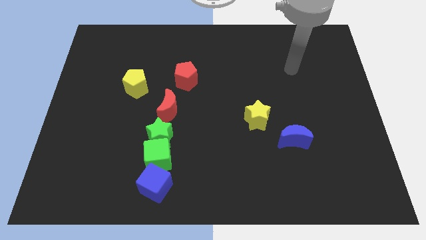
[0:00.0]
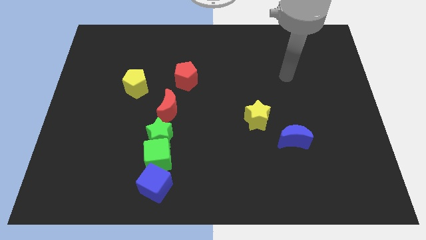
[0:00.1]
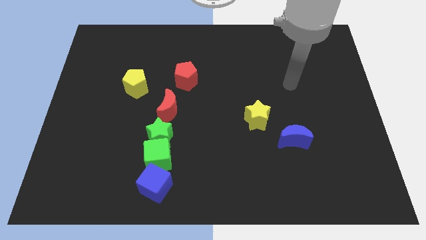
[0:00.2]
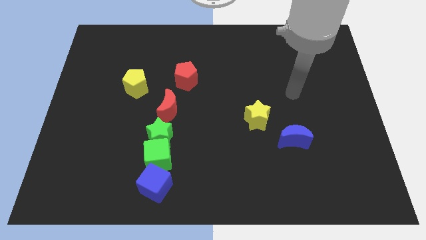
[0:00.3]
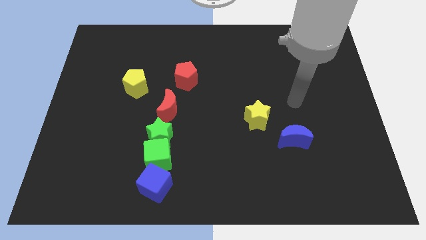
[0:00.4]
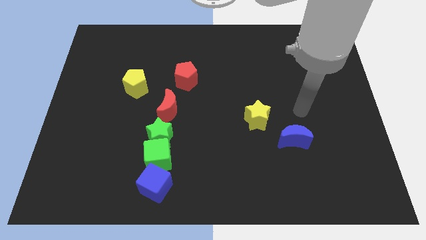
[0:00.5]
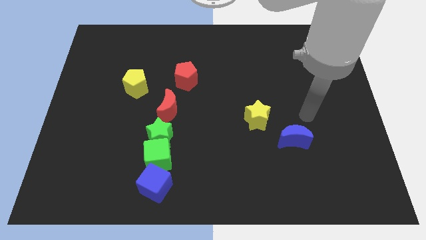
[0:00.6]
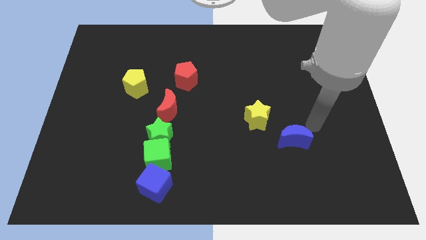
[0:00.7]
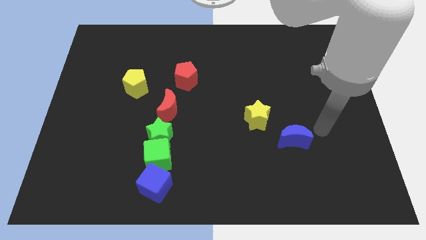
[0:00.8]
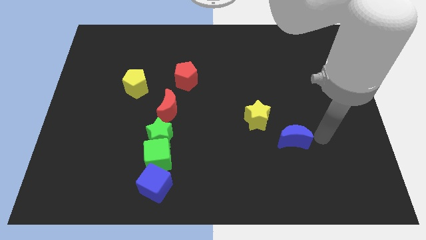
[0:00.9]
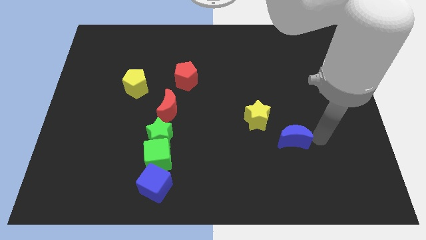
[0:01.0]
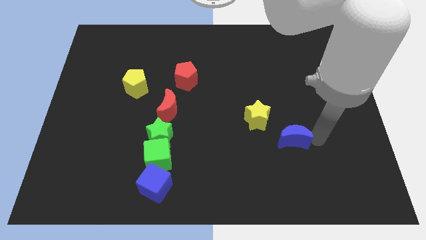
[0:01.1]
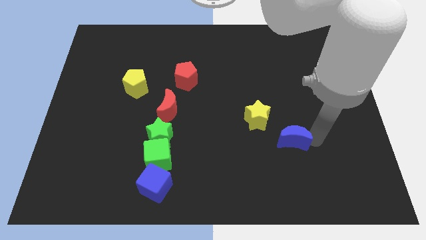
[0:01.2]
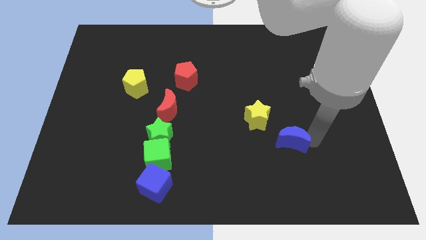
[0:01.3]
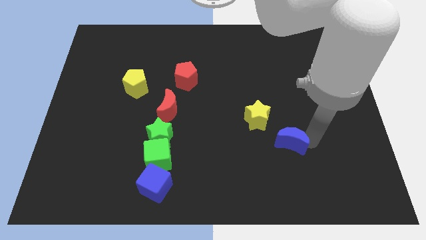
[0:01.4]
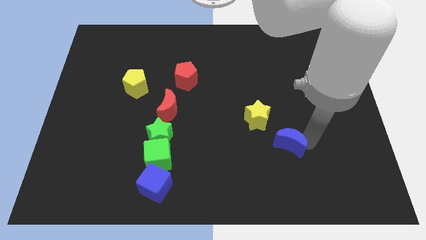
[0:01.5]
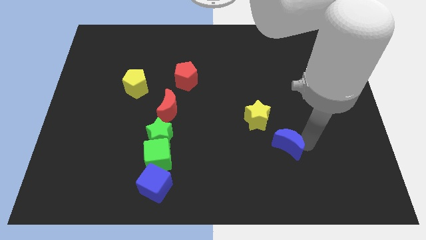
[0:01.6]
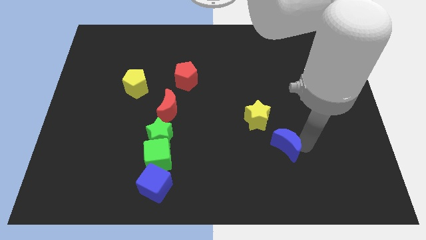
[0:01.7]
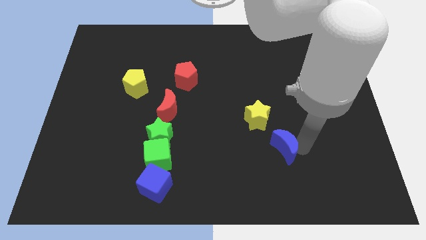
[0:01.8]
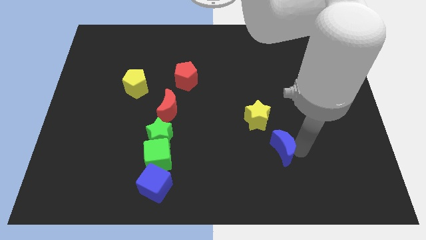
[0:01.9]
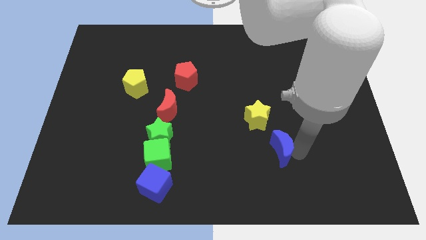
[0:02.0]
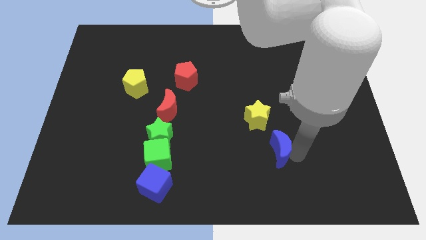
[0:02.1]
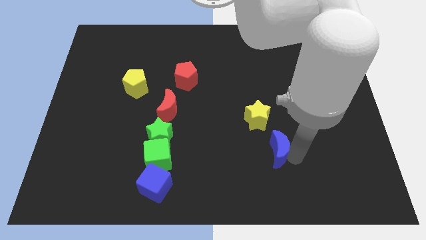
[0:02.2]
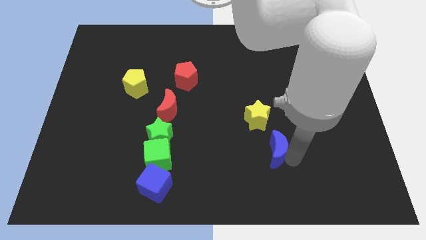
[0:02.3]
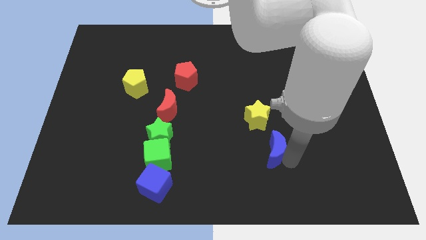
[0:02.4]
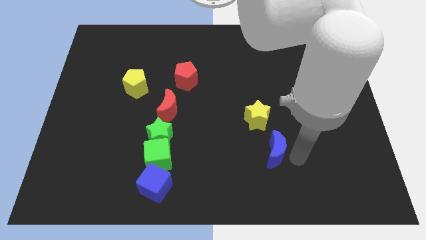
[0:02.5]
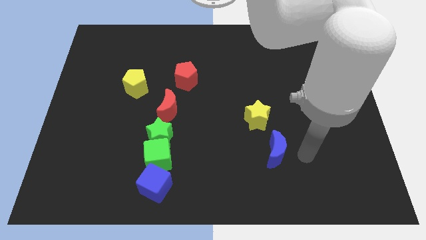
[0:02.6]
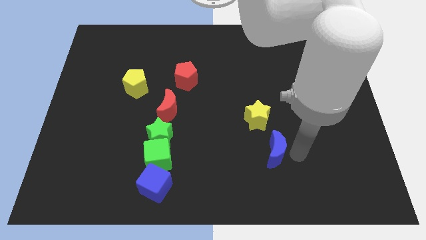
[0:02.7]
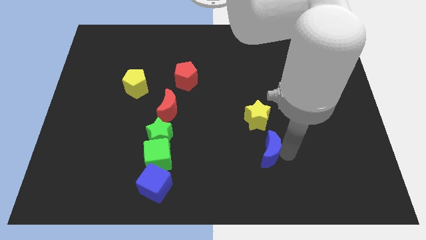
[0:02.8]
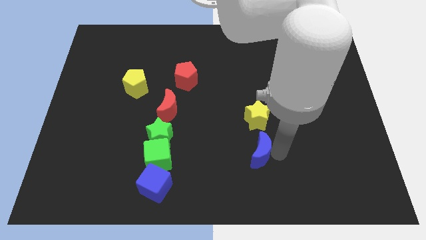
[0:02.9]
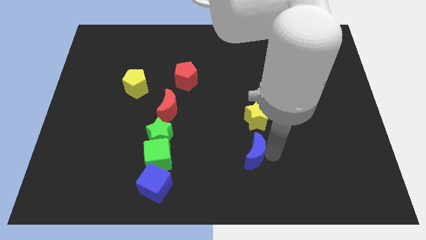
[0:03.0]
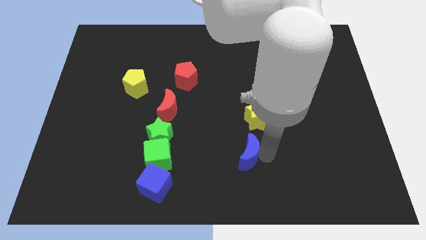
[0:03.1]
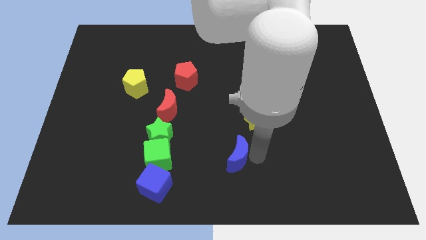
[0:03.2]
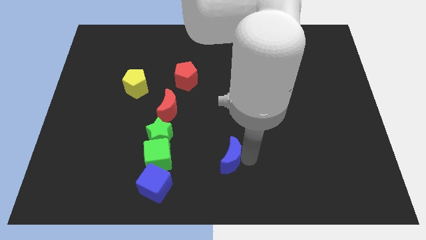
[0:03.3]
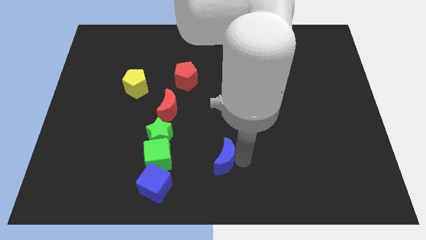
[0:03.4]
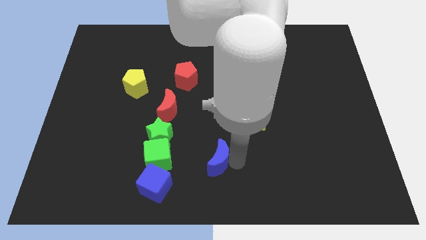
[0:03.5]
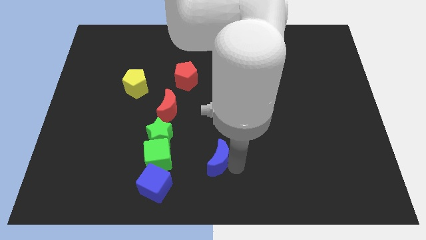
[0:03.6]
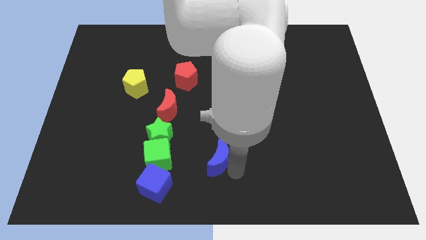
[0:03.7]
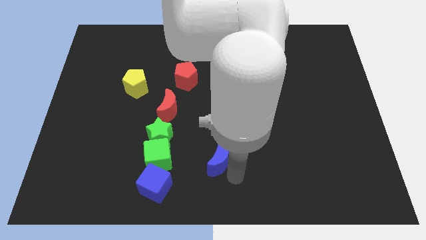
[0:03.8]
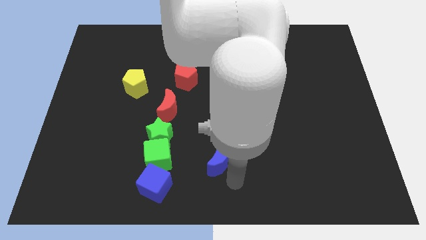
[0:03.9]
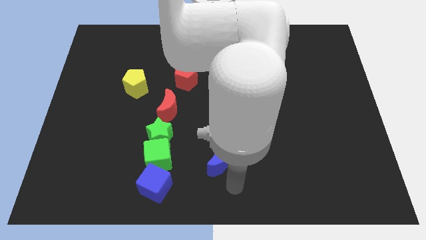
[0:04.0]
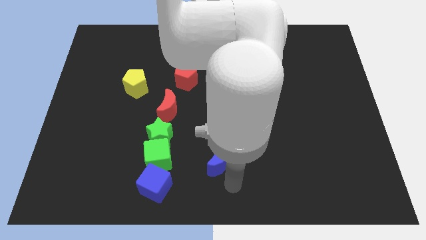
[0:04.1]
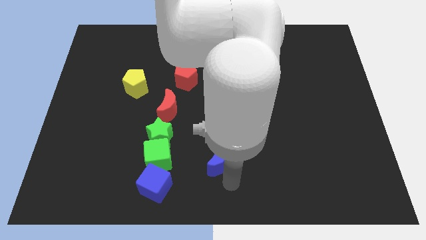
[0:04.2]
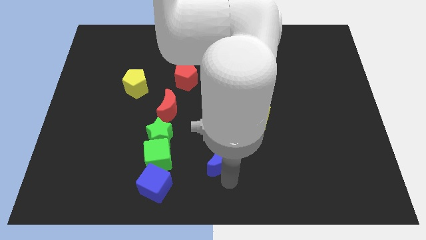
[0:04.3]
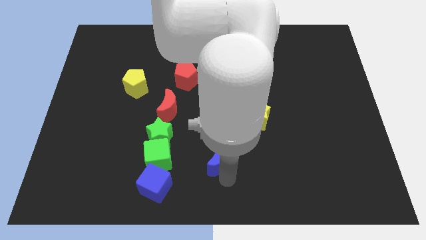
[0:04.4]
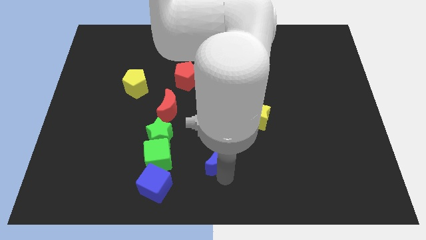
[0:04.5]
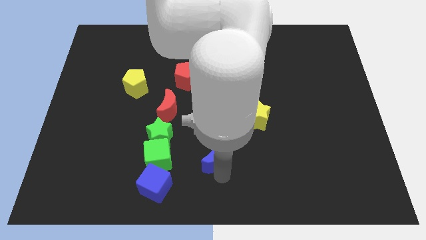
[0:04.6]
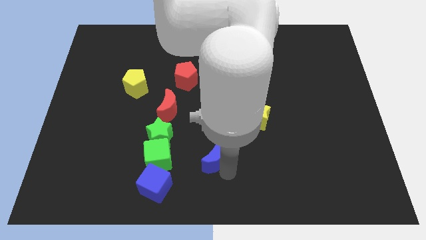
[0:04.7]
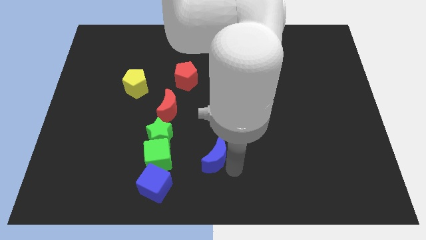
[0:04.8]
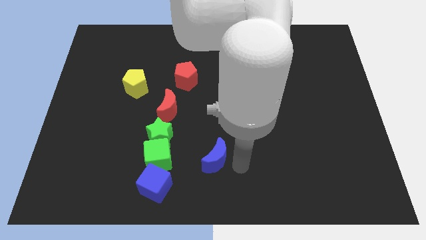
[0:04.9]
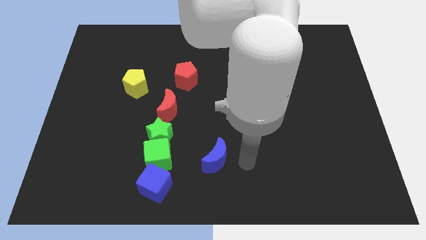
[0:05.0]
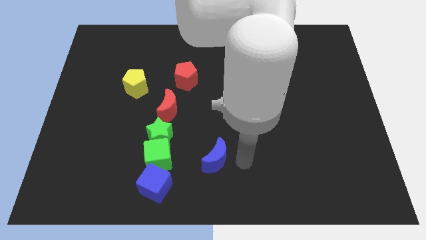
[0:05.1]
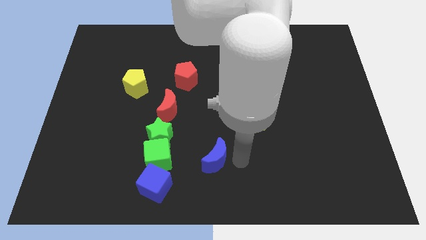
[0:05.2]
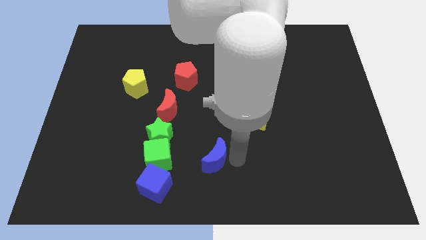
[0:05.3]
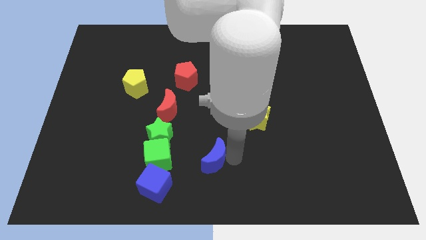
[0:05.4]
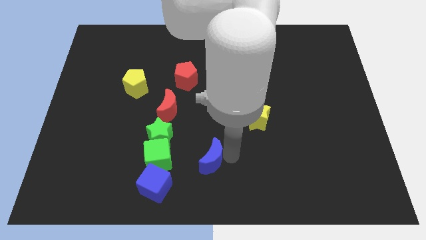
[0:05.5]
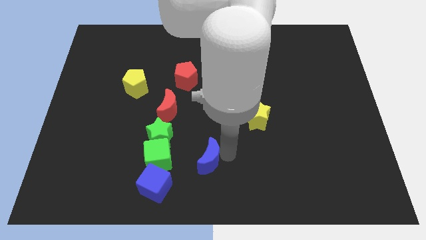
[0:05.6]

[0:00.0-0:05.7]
slide the blue moon diagonally down and to the right of the green star

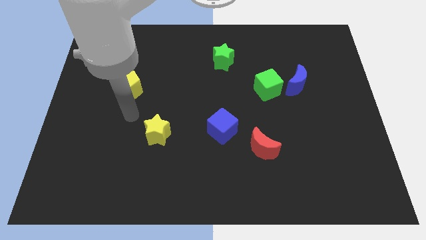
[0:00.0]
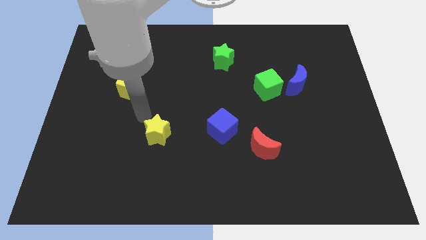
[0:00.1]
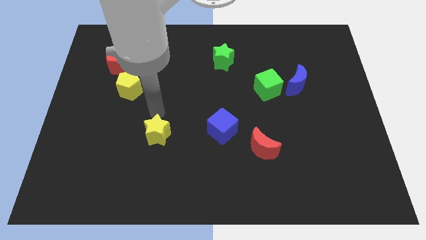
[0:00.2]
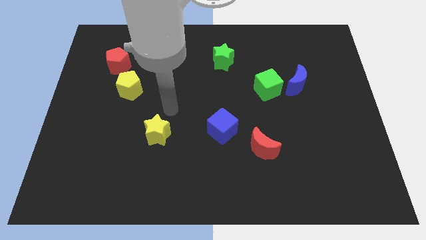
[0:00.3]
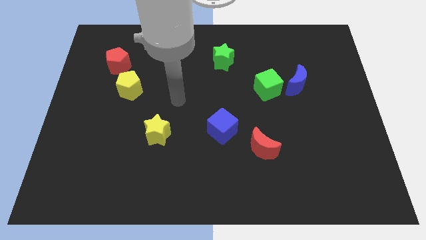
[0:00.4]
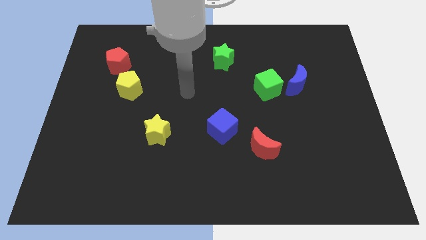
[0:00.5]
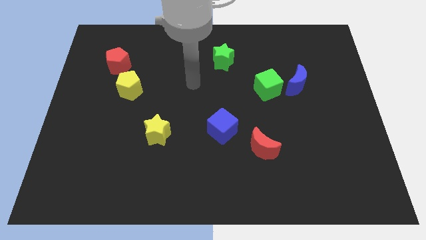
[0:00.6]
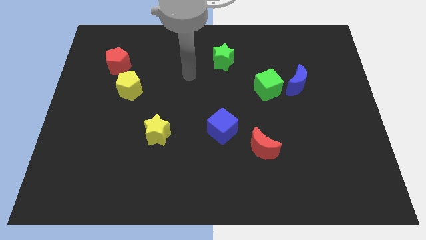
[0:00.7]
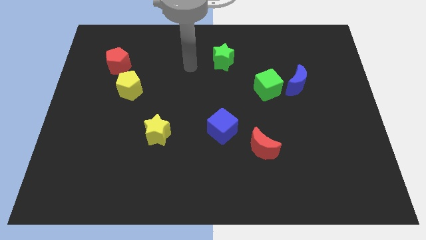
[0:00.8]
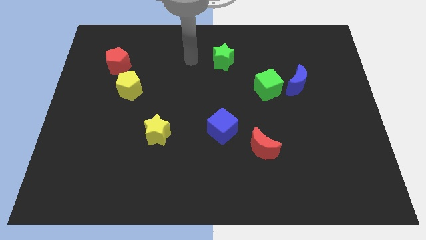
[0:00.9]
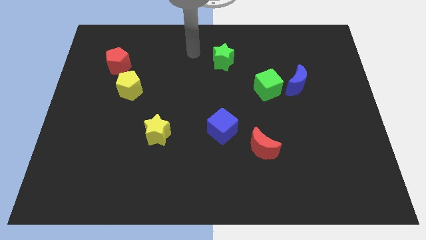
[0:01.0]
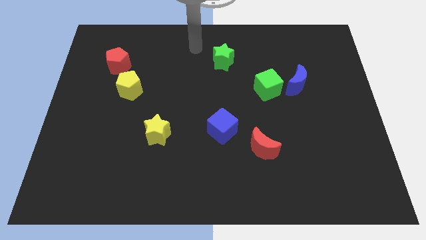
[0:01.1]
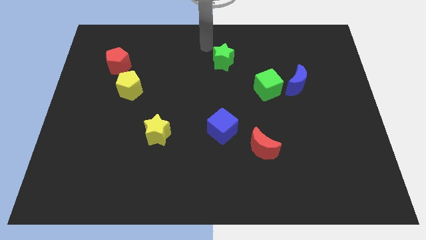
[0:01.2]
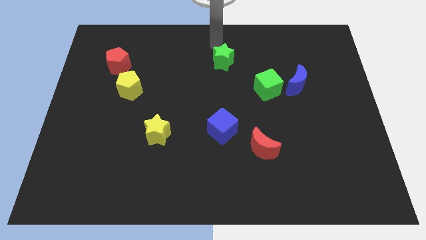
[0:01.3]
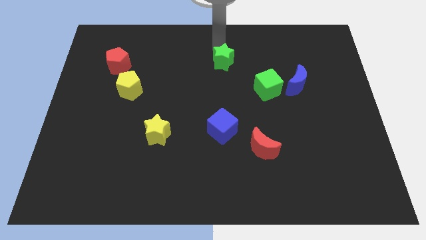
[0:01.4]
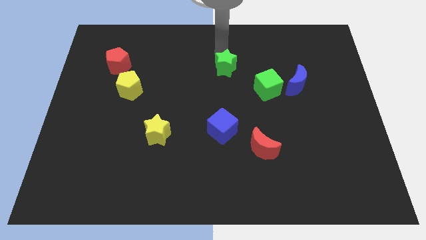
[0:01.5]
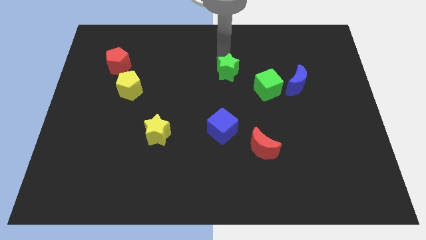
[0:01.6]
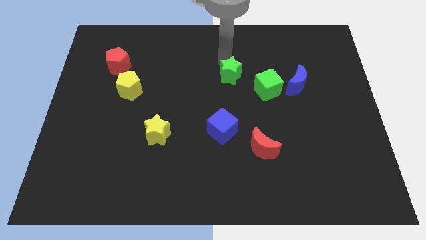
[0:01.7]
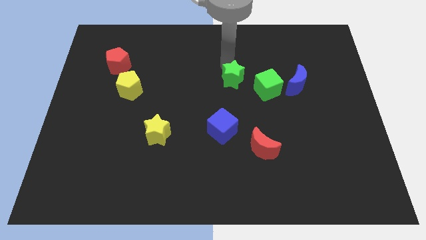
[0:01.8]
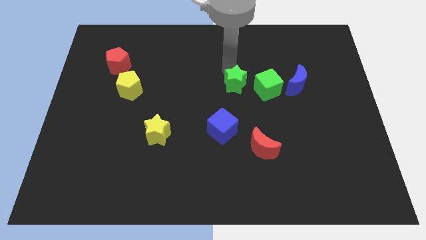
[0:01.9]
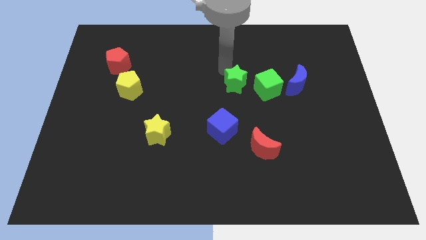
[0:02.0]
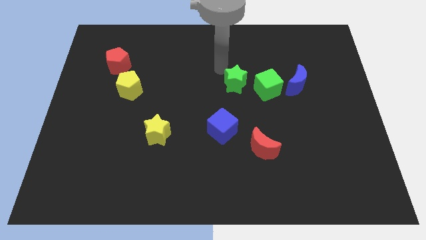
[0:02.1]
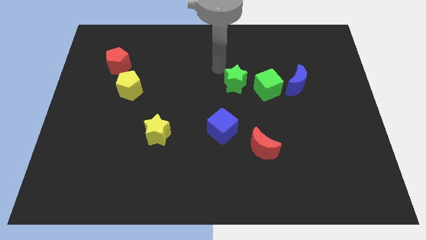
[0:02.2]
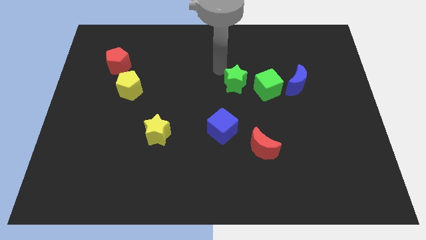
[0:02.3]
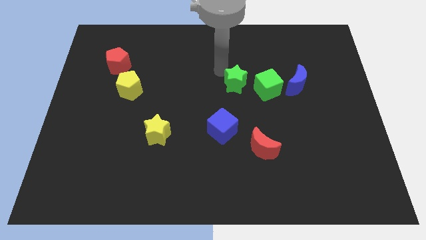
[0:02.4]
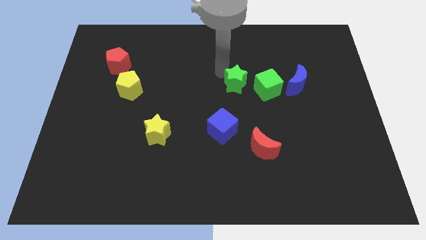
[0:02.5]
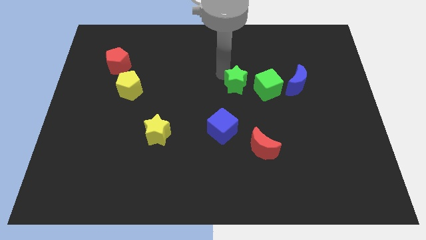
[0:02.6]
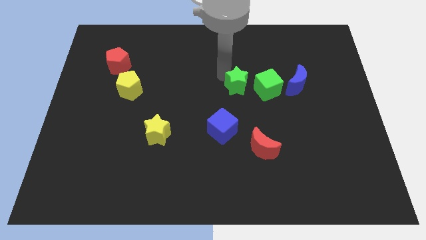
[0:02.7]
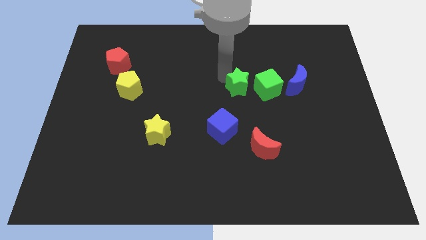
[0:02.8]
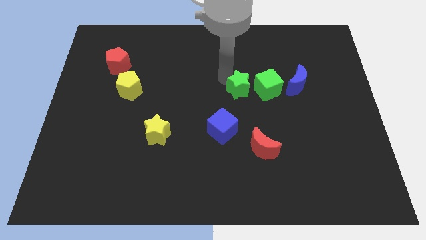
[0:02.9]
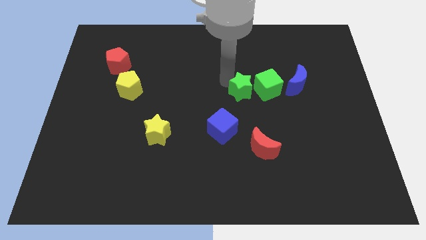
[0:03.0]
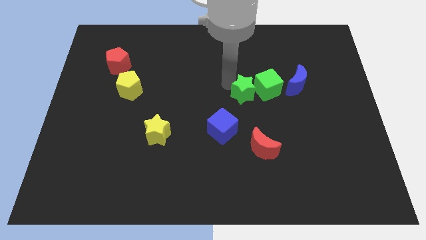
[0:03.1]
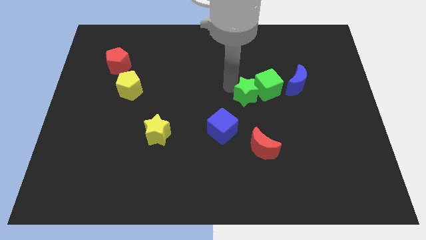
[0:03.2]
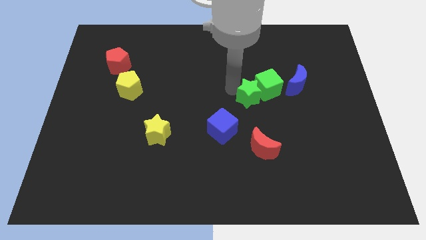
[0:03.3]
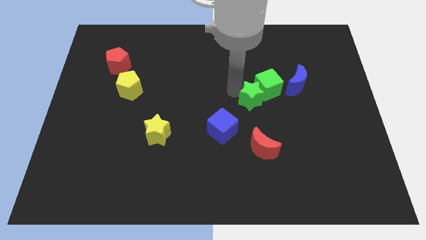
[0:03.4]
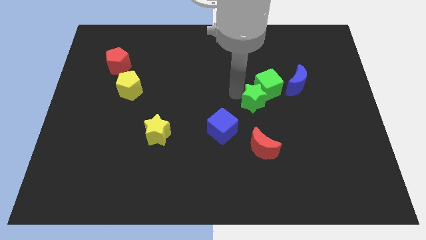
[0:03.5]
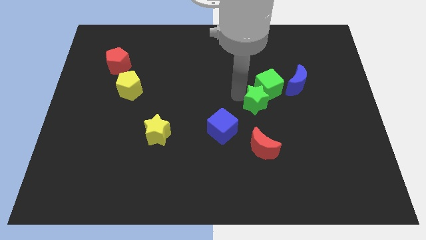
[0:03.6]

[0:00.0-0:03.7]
push the green star to the bottom left of the blue moon
